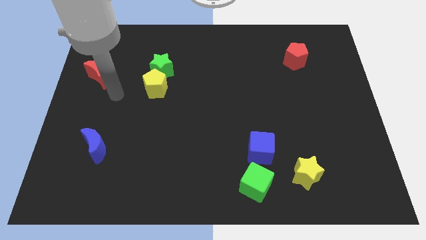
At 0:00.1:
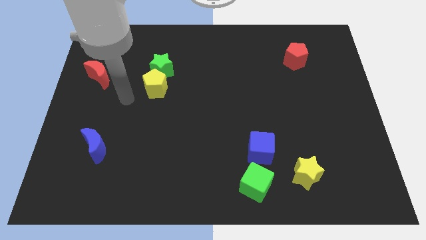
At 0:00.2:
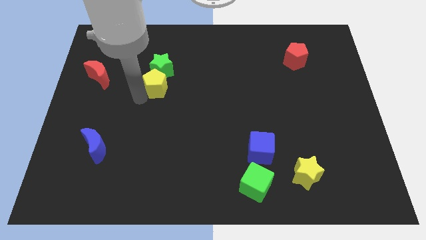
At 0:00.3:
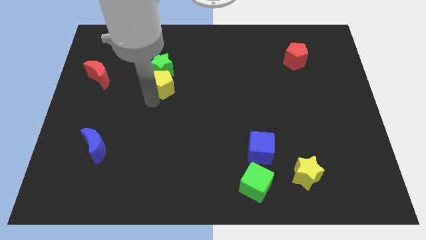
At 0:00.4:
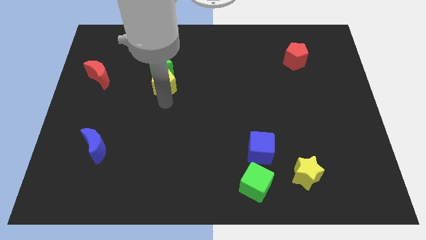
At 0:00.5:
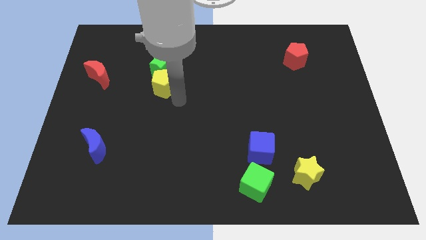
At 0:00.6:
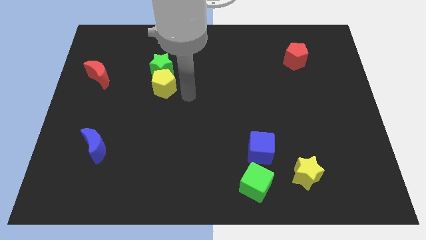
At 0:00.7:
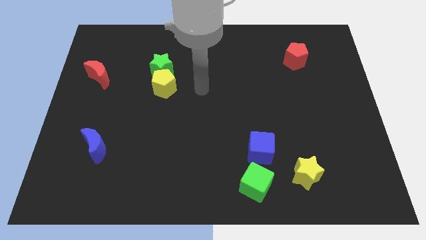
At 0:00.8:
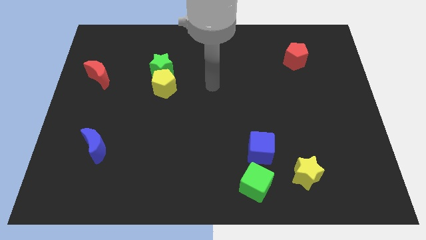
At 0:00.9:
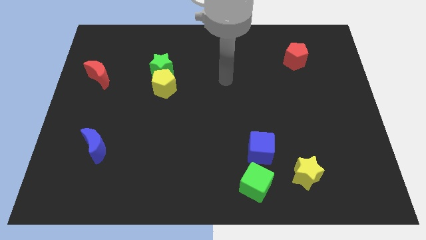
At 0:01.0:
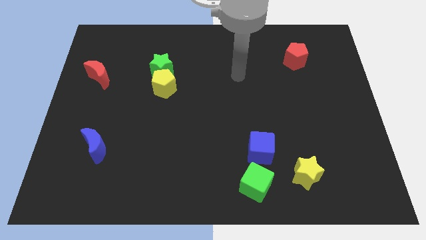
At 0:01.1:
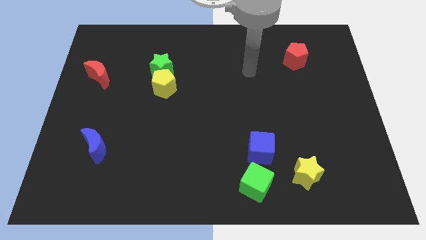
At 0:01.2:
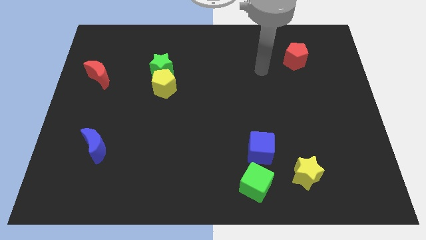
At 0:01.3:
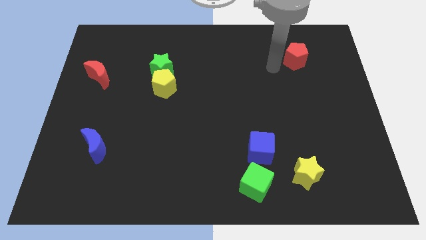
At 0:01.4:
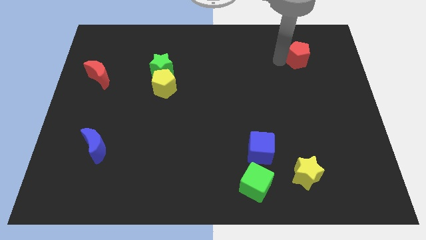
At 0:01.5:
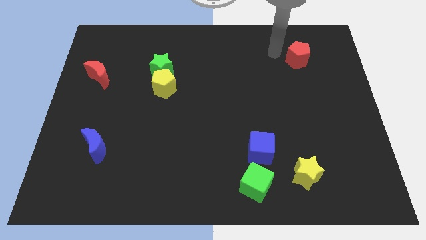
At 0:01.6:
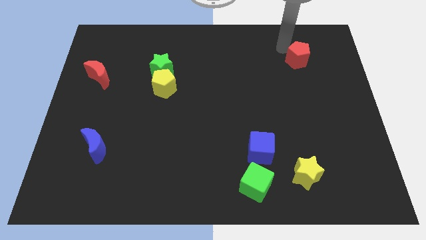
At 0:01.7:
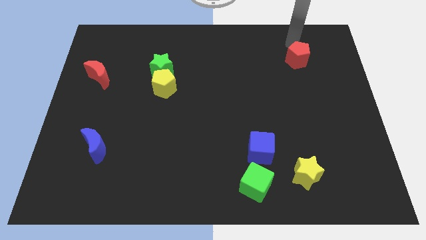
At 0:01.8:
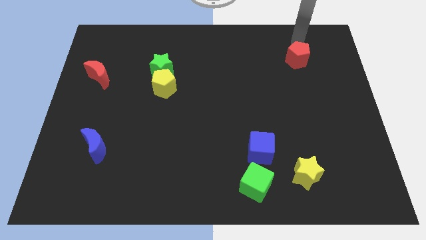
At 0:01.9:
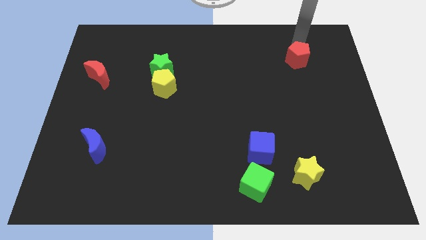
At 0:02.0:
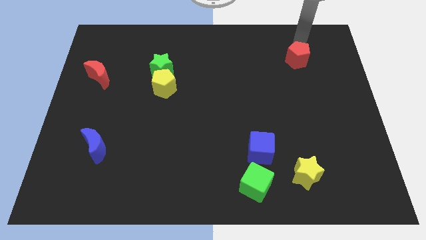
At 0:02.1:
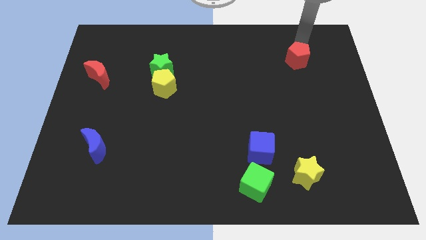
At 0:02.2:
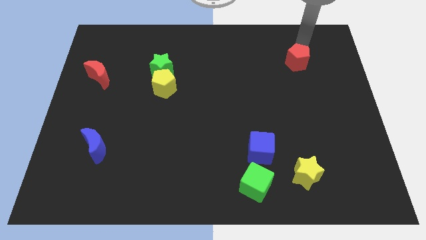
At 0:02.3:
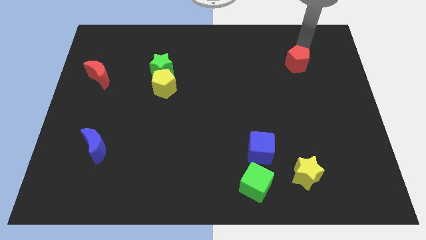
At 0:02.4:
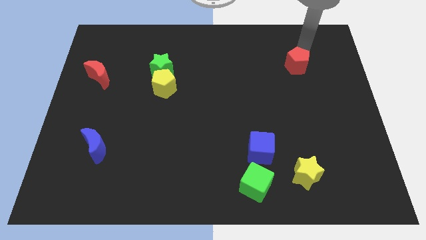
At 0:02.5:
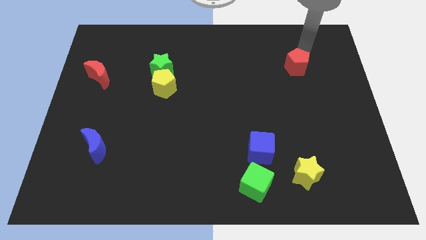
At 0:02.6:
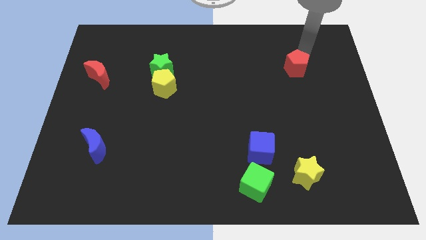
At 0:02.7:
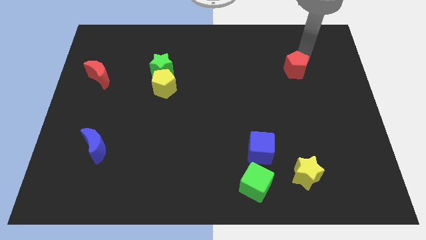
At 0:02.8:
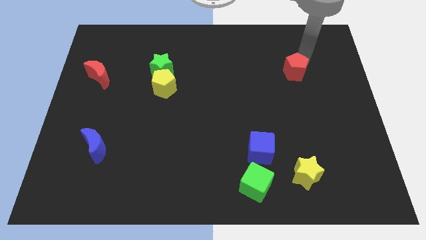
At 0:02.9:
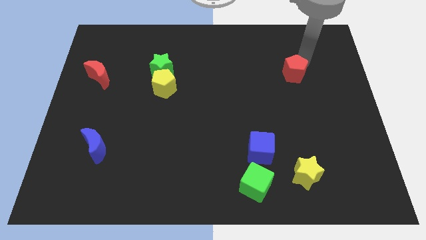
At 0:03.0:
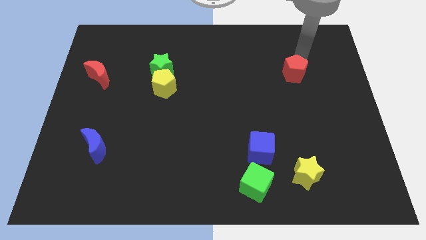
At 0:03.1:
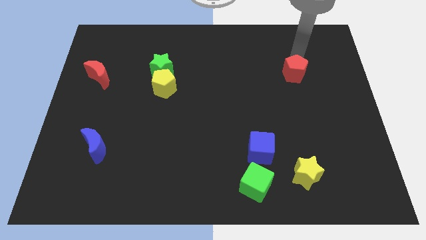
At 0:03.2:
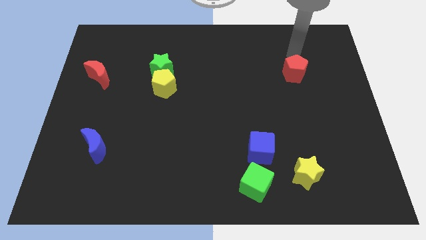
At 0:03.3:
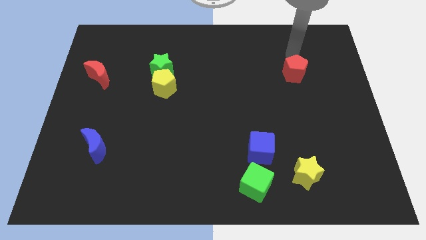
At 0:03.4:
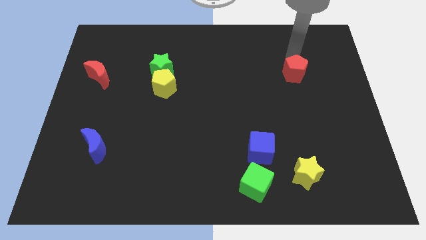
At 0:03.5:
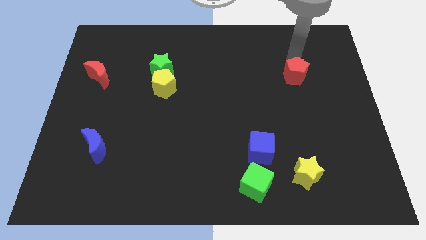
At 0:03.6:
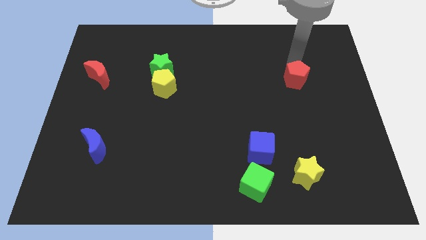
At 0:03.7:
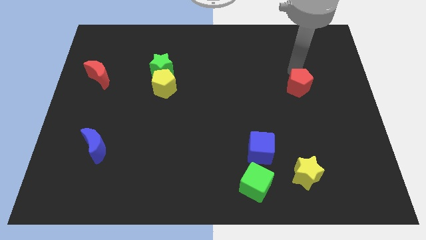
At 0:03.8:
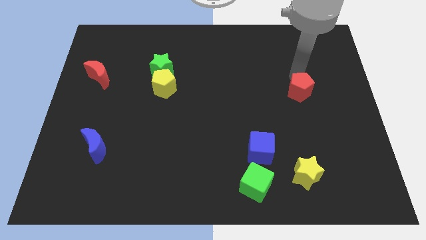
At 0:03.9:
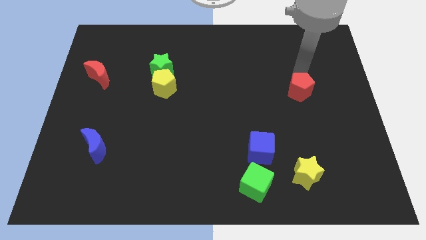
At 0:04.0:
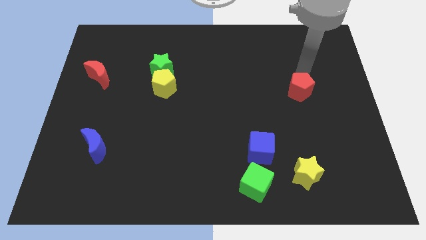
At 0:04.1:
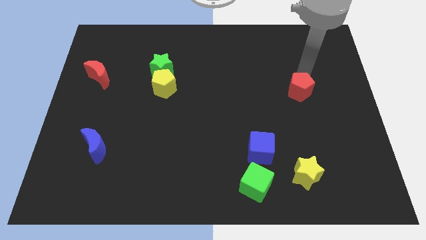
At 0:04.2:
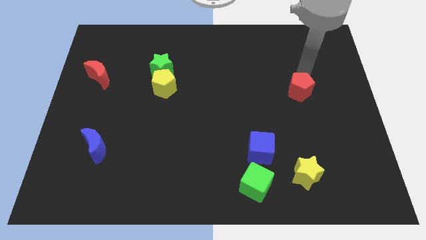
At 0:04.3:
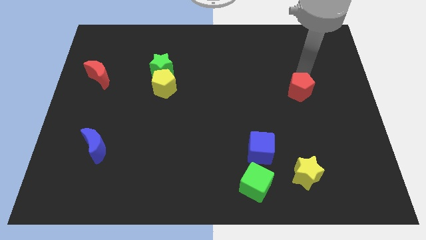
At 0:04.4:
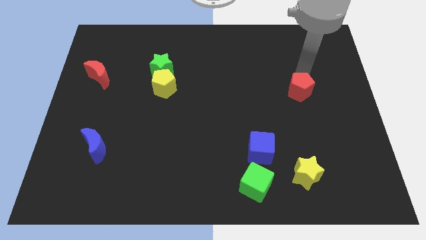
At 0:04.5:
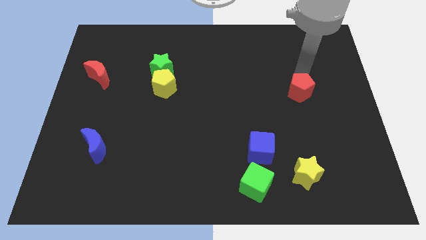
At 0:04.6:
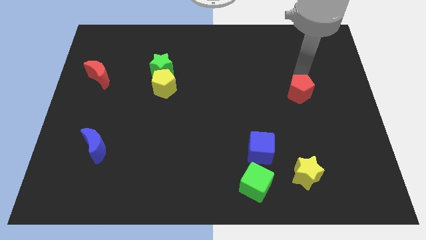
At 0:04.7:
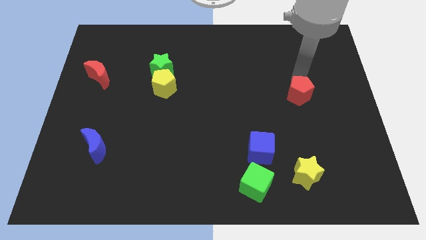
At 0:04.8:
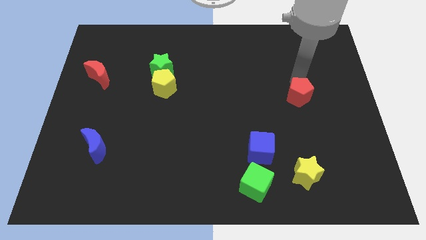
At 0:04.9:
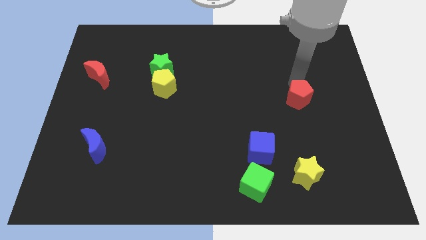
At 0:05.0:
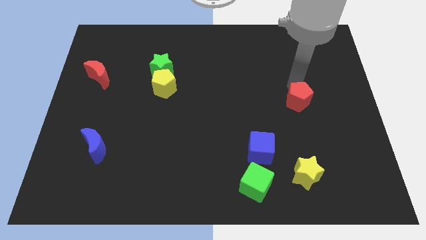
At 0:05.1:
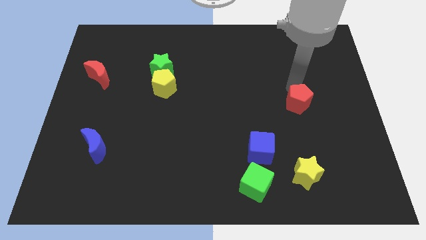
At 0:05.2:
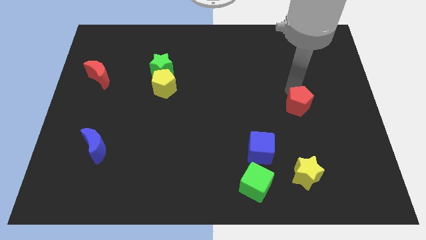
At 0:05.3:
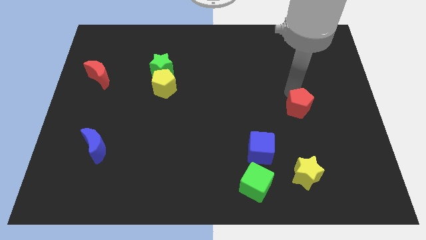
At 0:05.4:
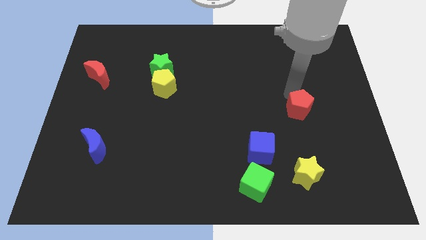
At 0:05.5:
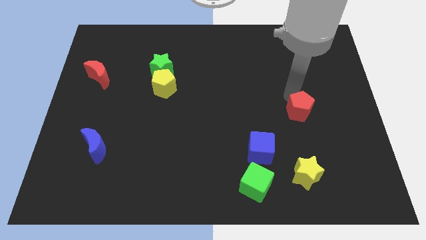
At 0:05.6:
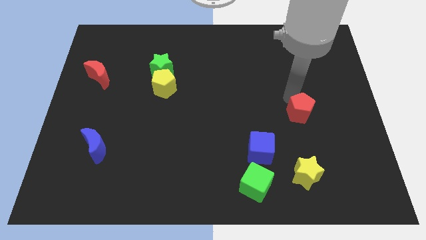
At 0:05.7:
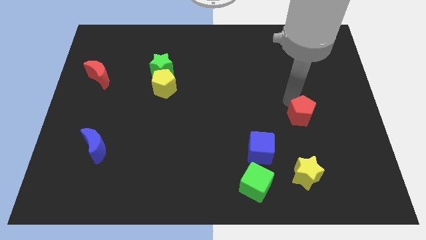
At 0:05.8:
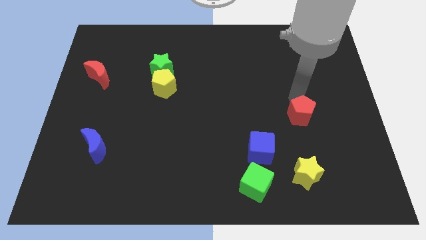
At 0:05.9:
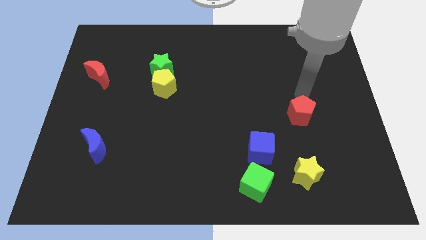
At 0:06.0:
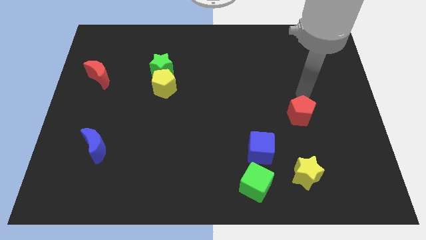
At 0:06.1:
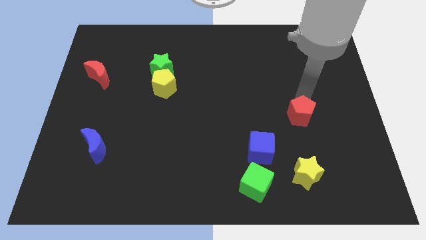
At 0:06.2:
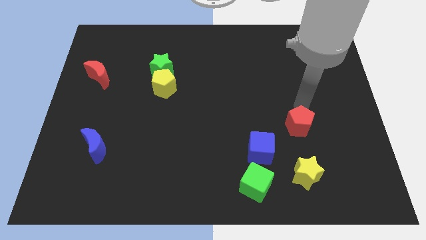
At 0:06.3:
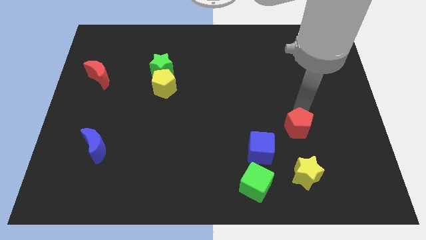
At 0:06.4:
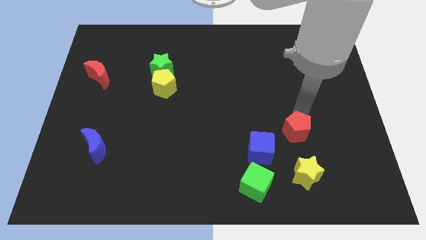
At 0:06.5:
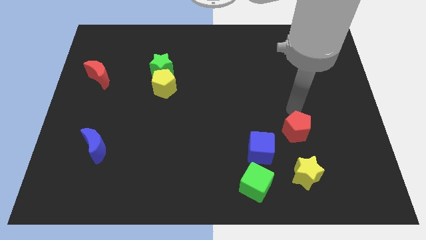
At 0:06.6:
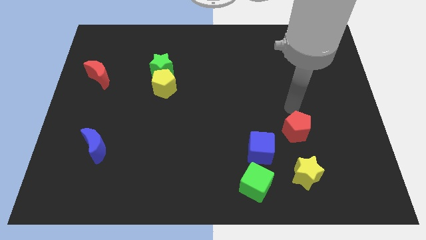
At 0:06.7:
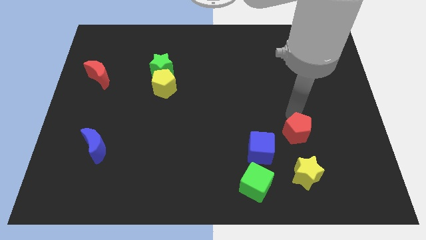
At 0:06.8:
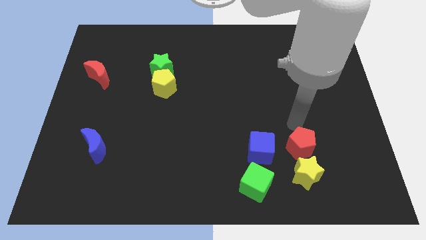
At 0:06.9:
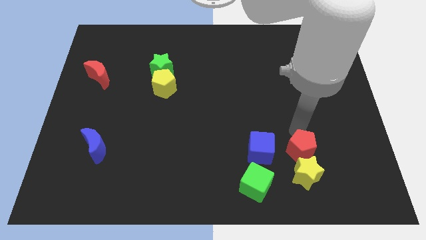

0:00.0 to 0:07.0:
slide the red pentagon to the yellow star
